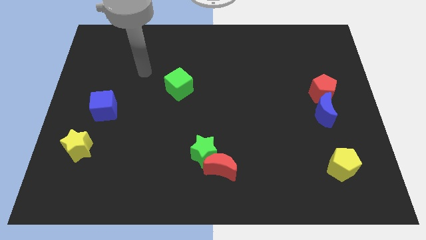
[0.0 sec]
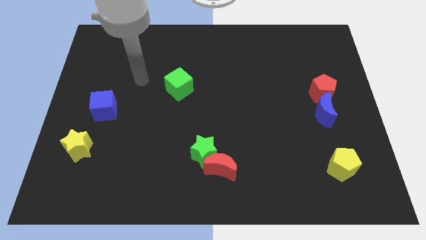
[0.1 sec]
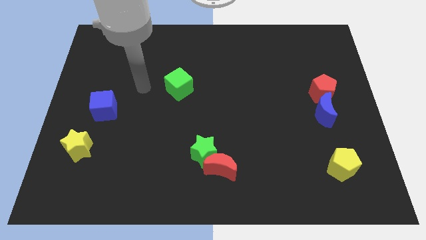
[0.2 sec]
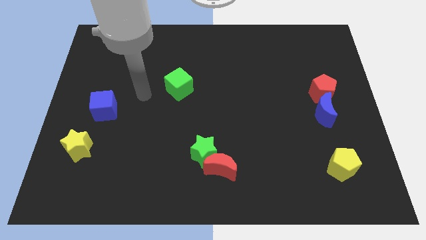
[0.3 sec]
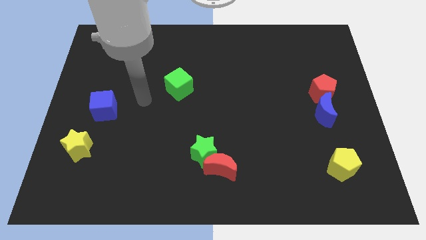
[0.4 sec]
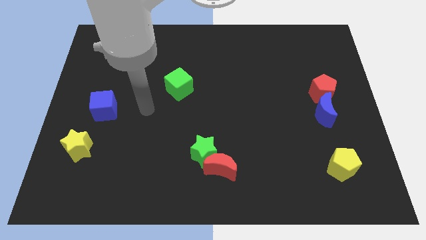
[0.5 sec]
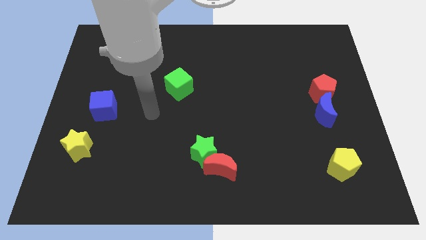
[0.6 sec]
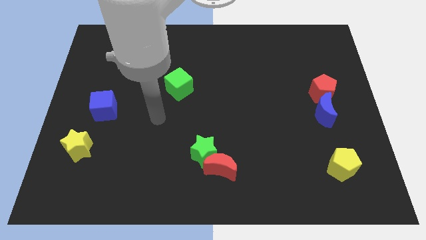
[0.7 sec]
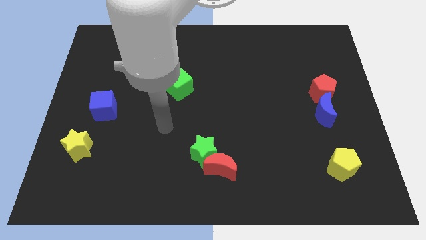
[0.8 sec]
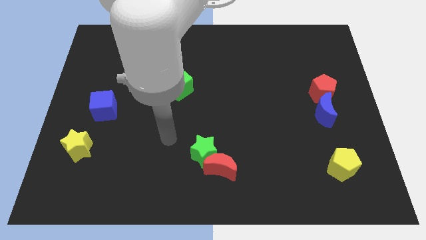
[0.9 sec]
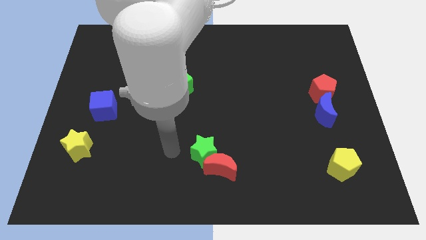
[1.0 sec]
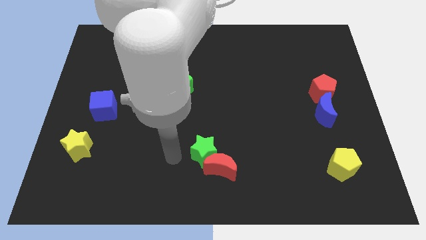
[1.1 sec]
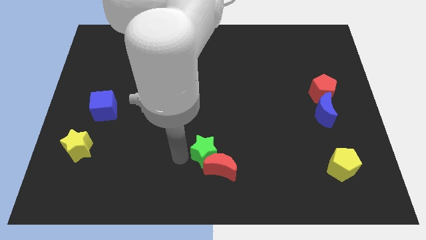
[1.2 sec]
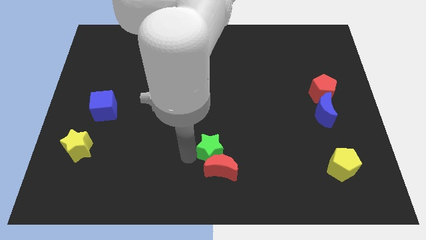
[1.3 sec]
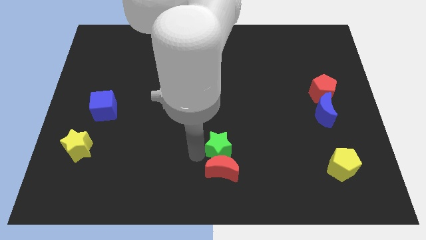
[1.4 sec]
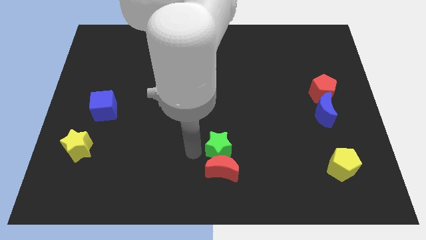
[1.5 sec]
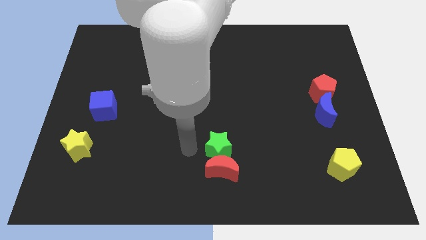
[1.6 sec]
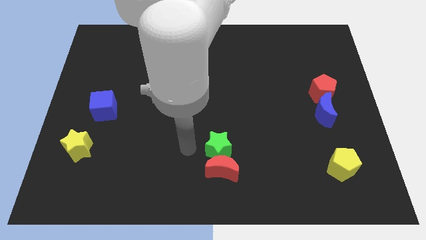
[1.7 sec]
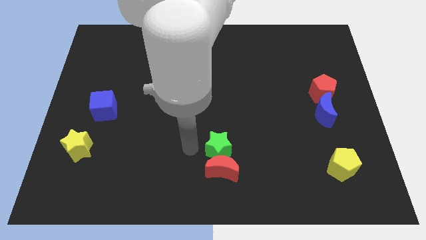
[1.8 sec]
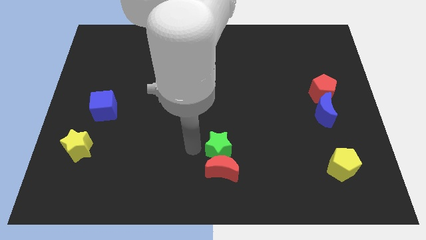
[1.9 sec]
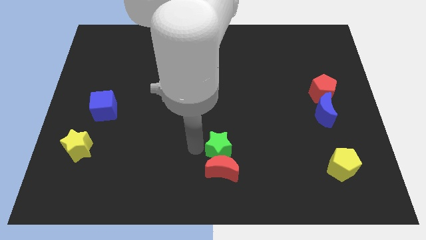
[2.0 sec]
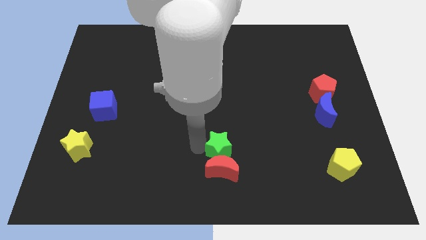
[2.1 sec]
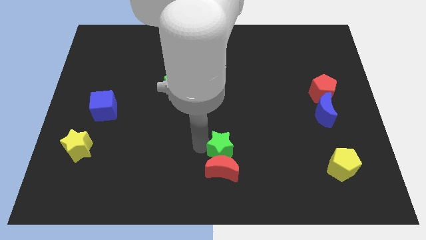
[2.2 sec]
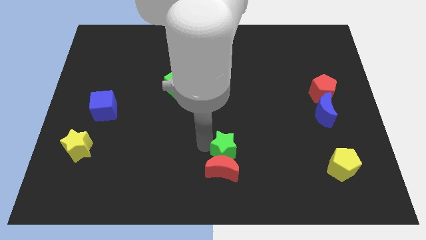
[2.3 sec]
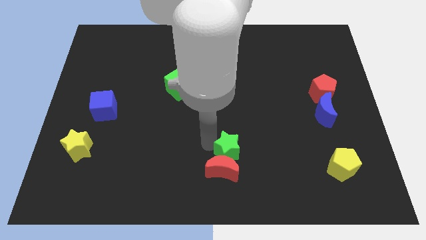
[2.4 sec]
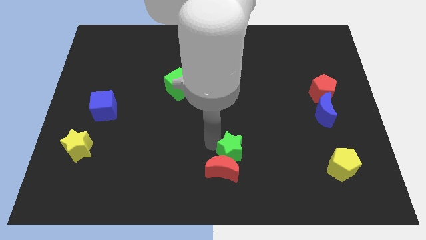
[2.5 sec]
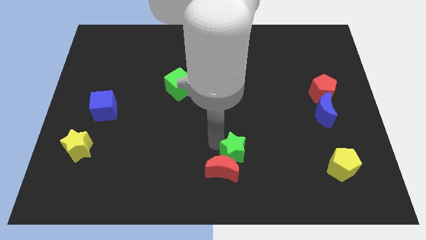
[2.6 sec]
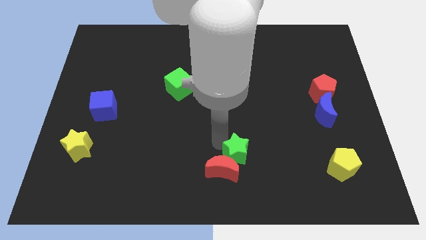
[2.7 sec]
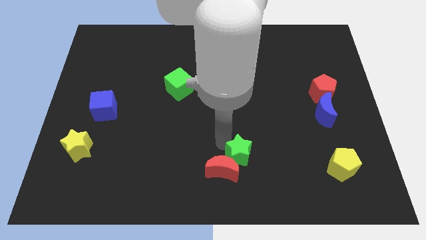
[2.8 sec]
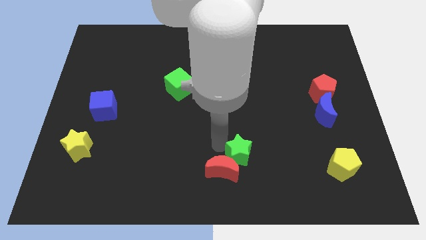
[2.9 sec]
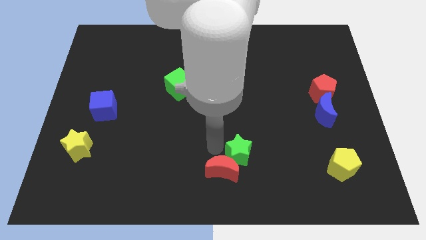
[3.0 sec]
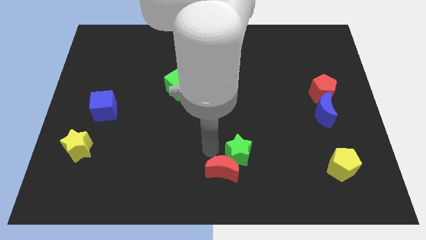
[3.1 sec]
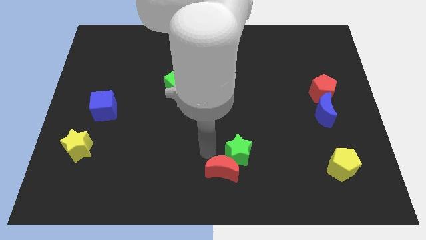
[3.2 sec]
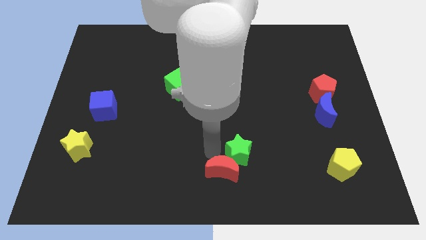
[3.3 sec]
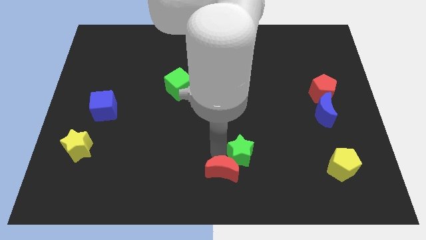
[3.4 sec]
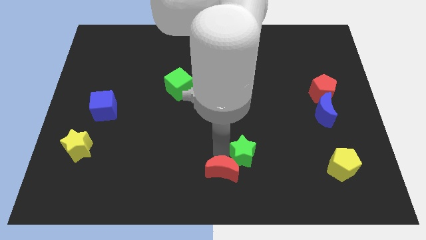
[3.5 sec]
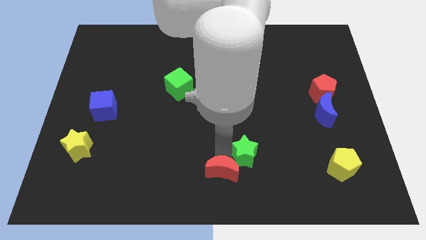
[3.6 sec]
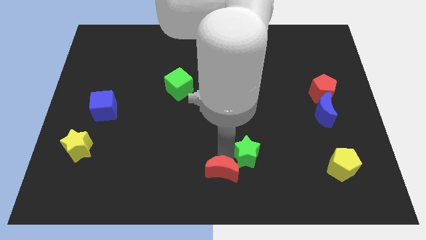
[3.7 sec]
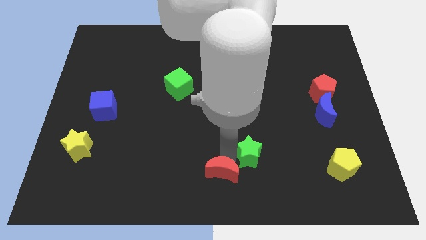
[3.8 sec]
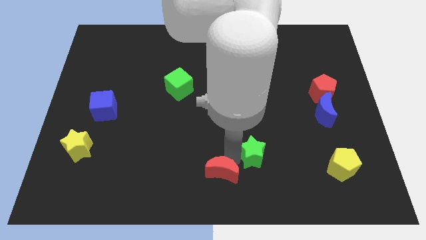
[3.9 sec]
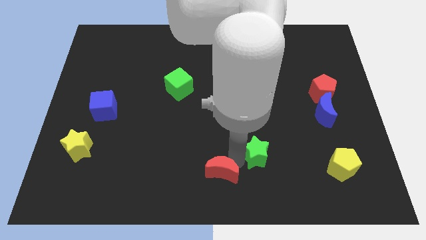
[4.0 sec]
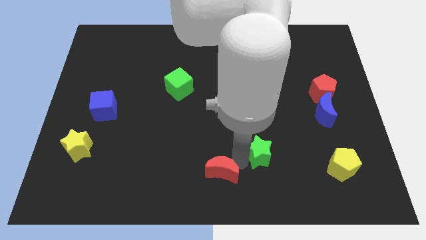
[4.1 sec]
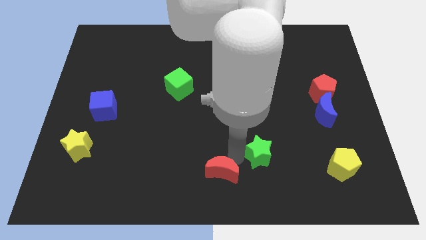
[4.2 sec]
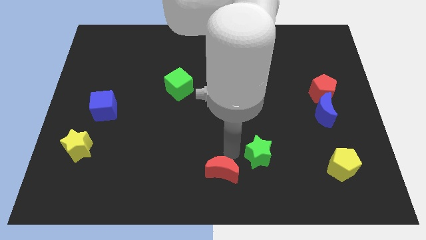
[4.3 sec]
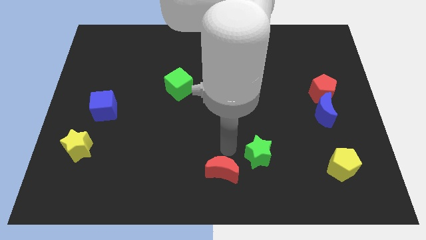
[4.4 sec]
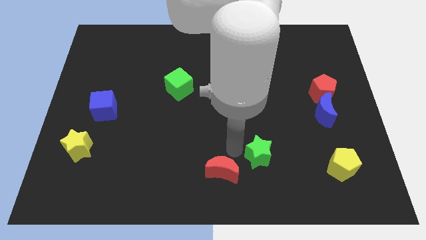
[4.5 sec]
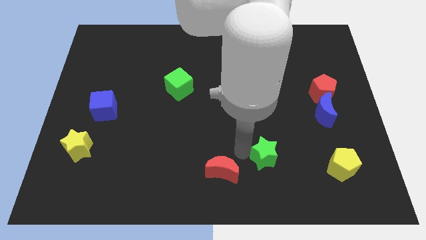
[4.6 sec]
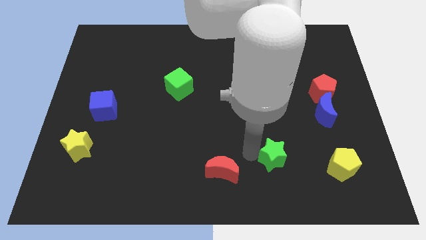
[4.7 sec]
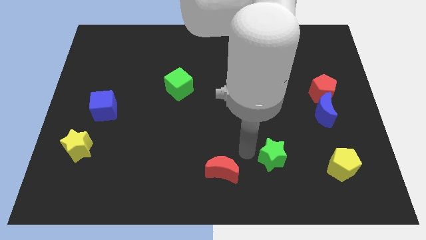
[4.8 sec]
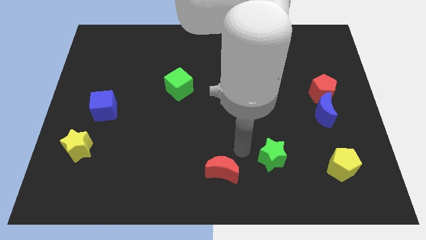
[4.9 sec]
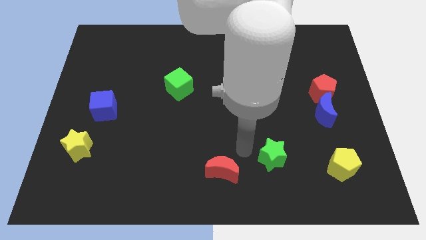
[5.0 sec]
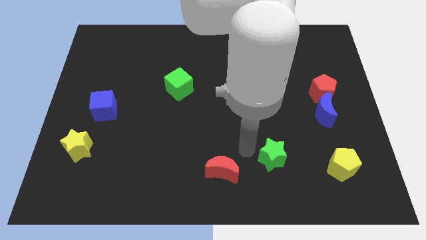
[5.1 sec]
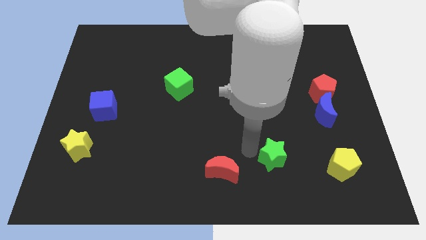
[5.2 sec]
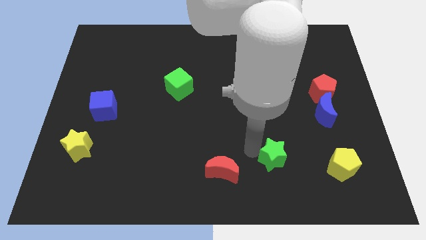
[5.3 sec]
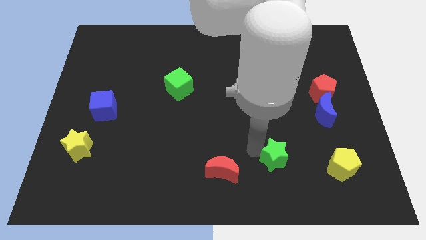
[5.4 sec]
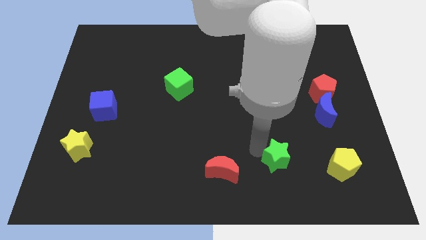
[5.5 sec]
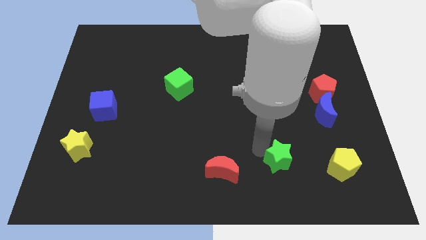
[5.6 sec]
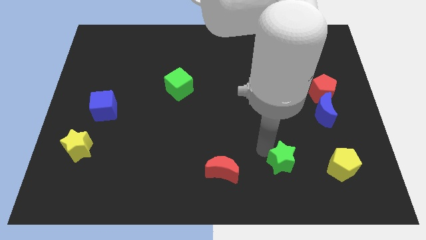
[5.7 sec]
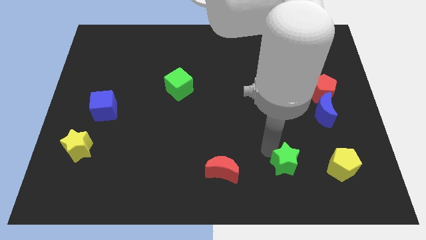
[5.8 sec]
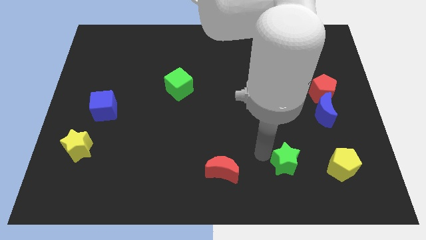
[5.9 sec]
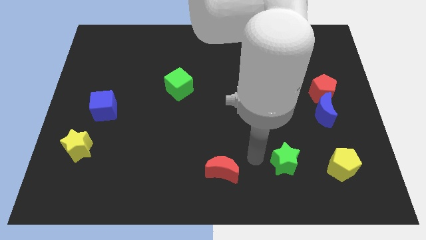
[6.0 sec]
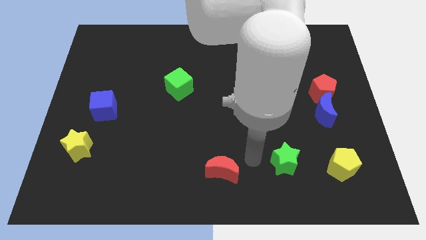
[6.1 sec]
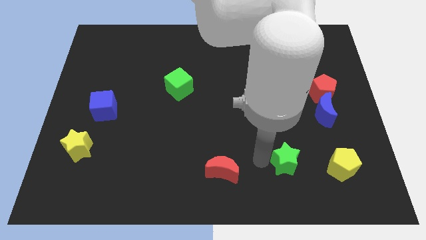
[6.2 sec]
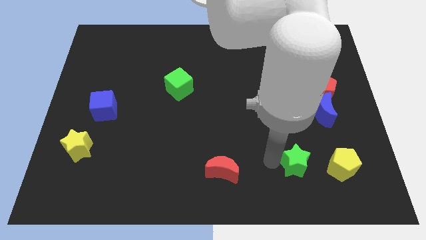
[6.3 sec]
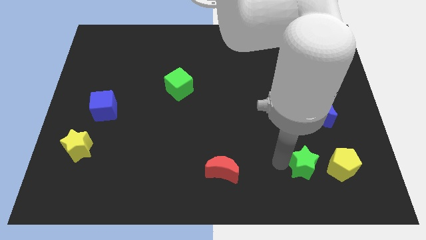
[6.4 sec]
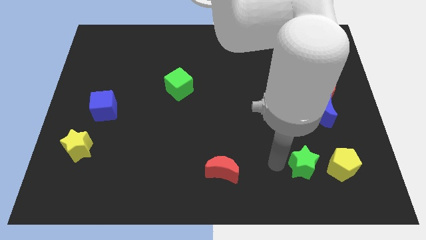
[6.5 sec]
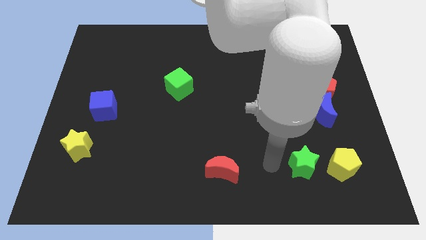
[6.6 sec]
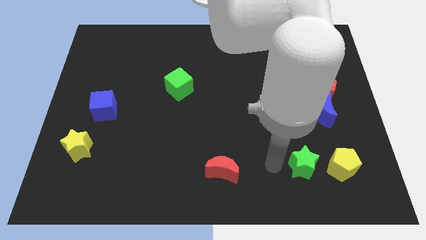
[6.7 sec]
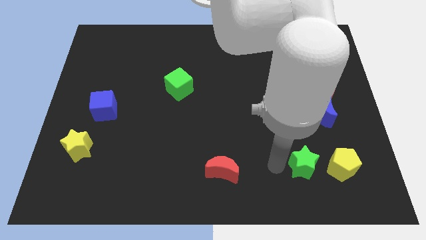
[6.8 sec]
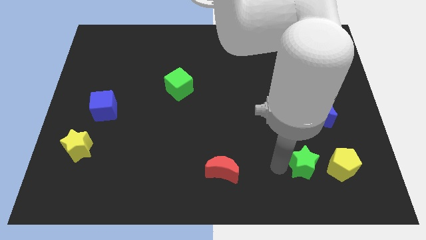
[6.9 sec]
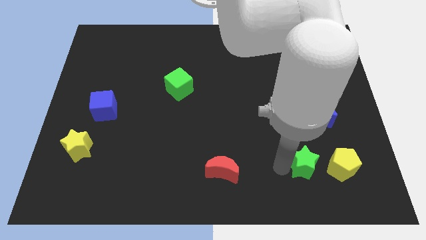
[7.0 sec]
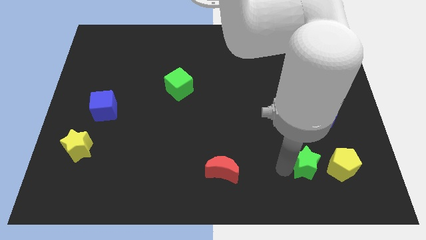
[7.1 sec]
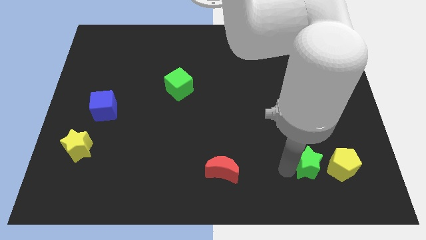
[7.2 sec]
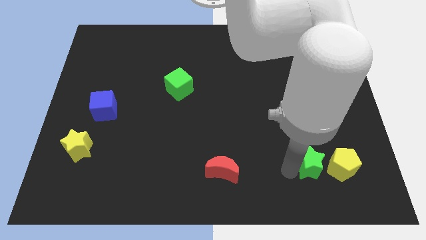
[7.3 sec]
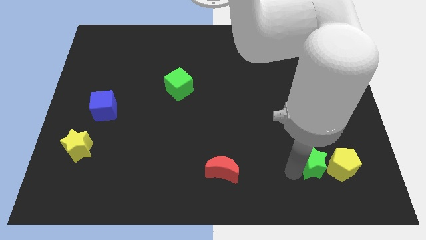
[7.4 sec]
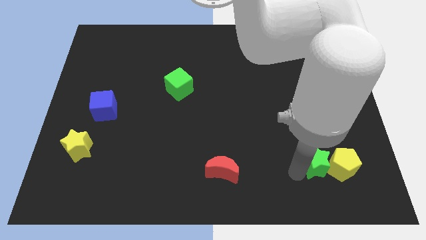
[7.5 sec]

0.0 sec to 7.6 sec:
move the green star next to the yellow pentagon
